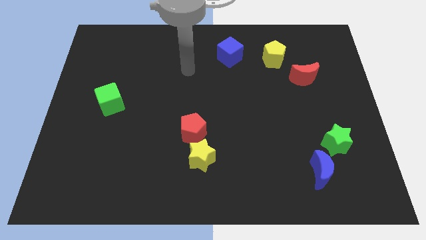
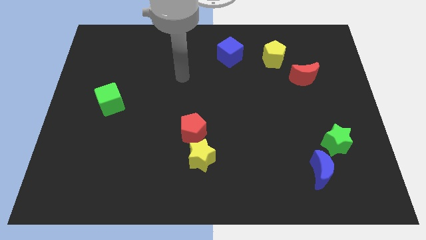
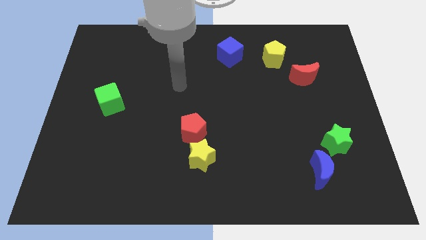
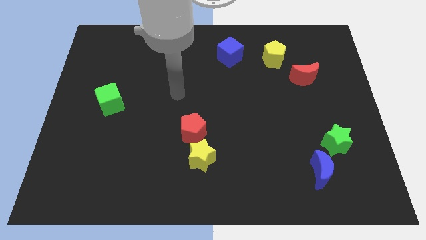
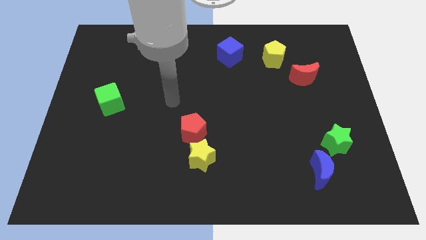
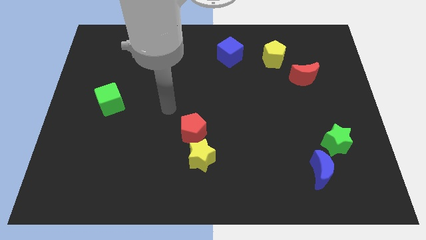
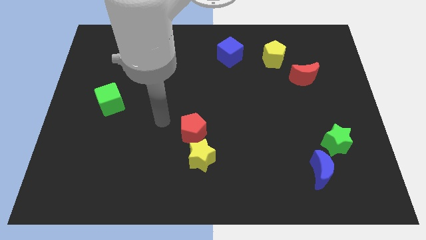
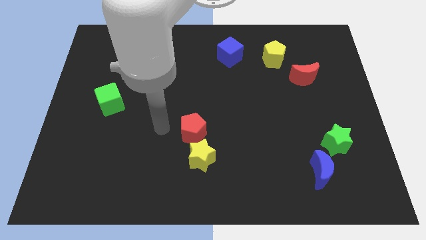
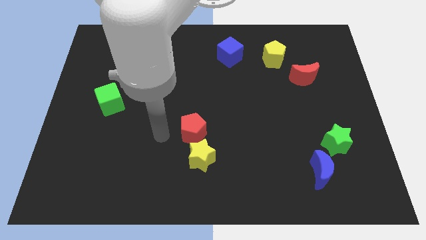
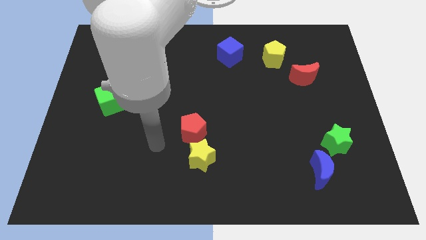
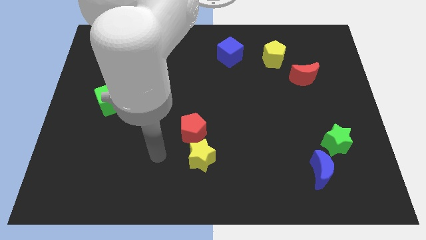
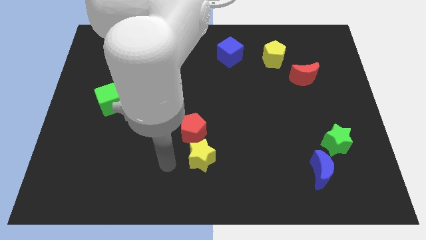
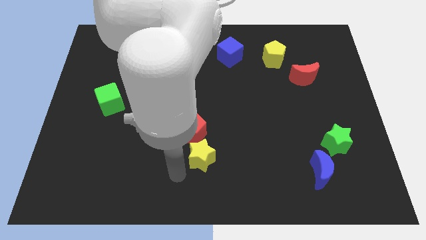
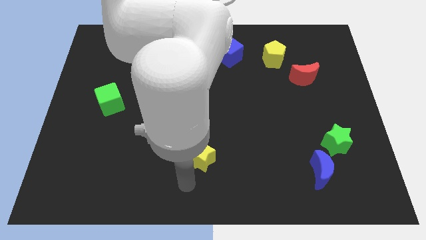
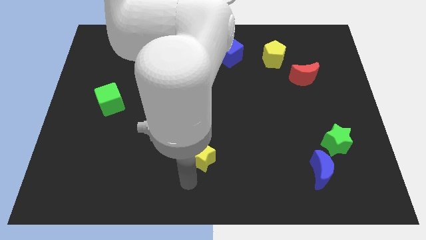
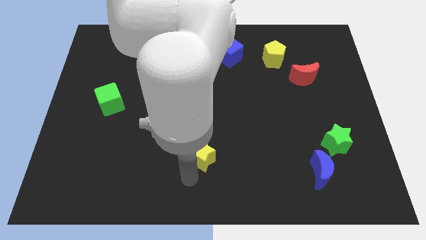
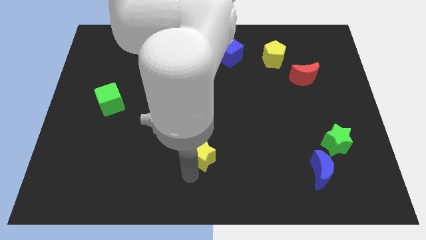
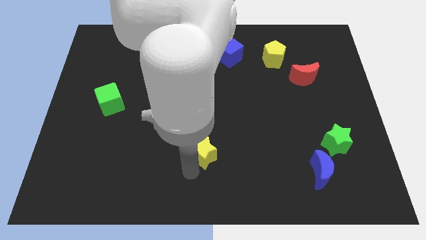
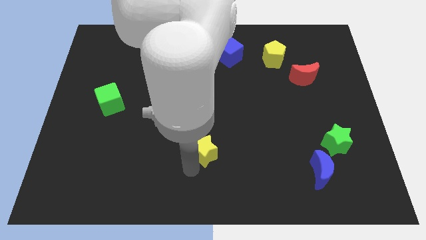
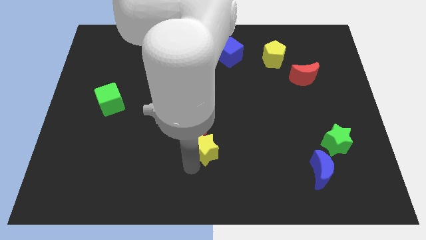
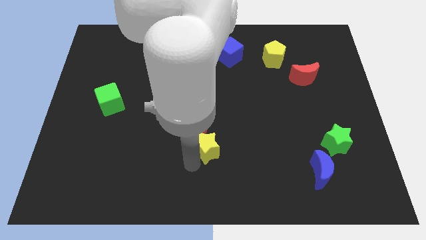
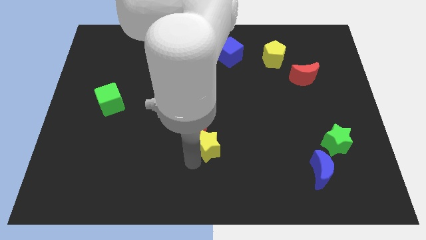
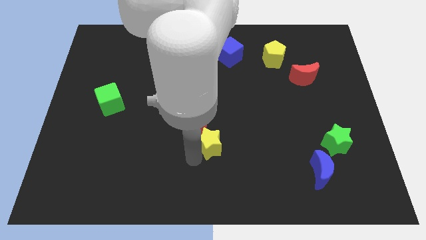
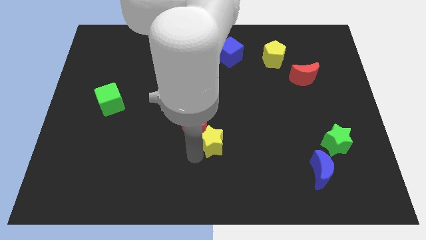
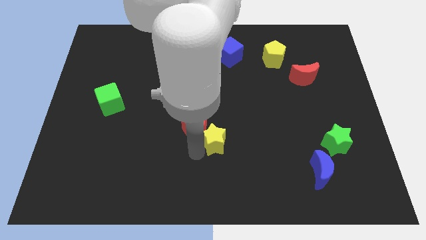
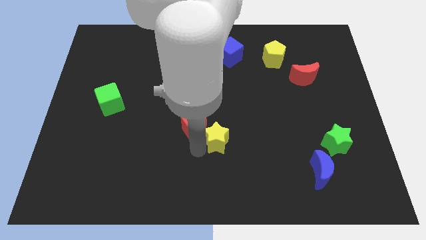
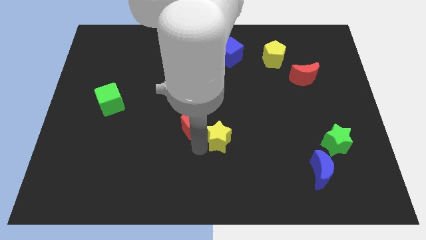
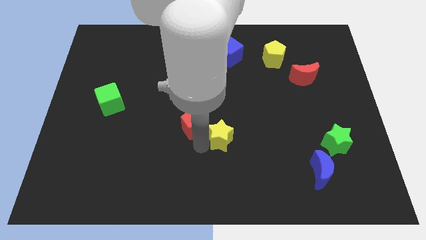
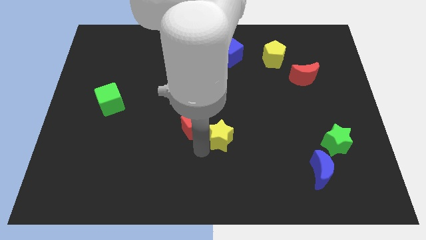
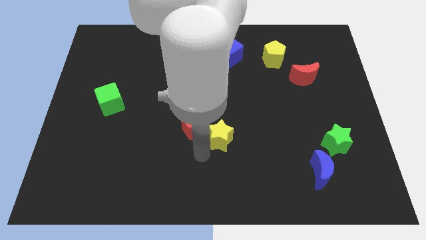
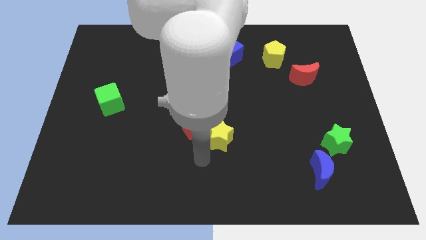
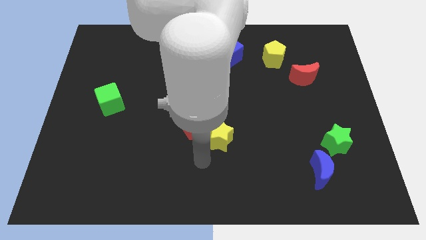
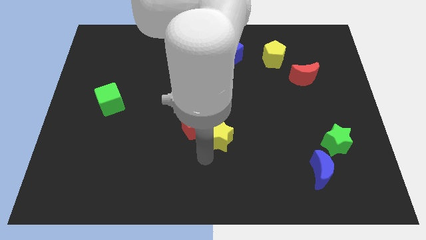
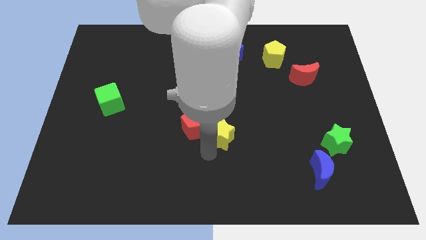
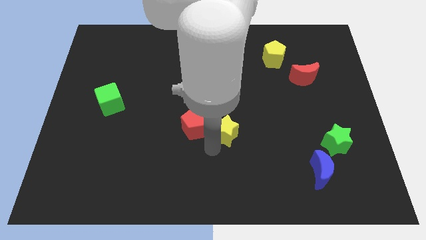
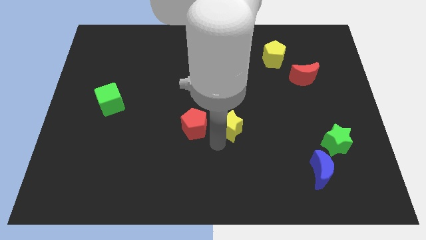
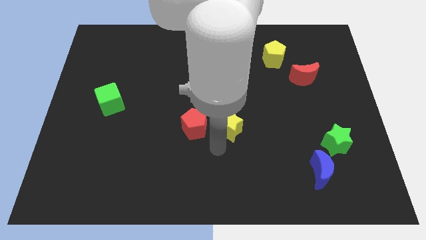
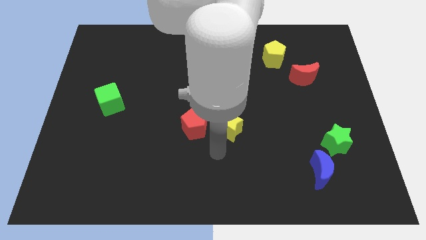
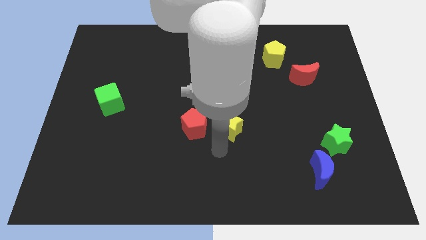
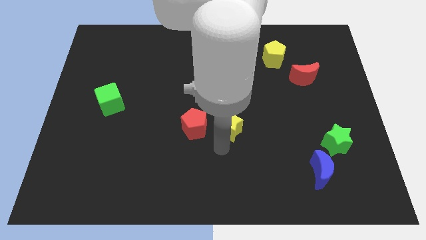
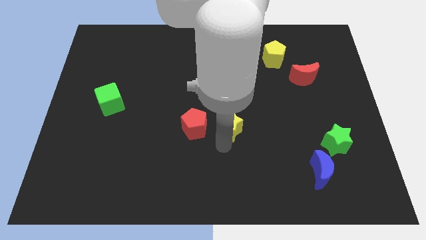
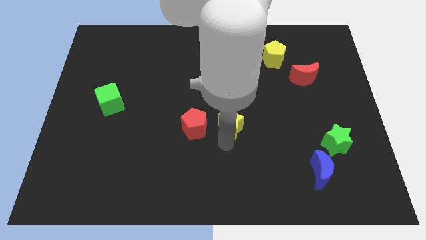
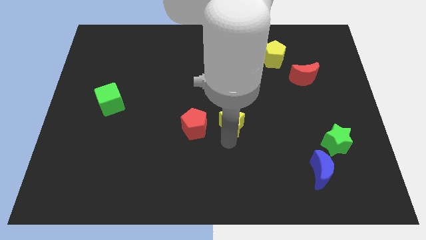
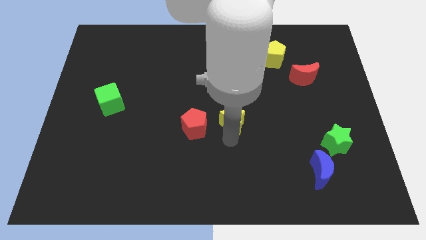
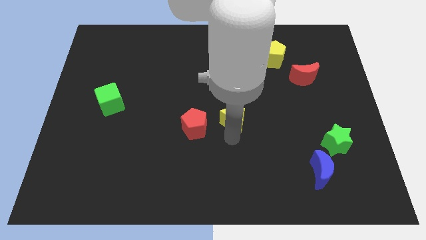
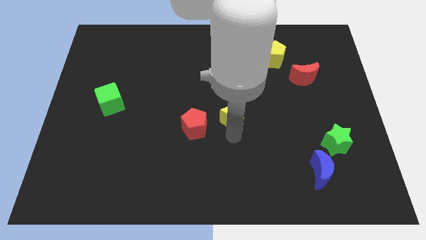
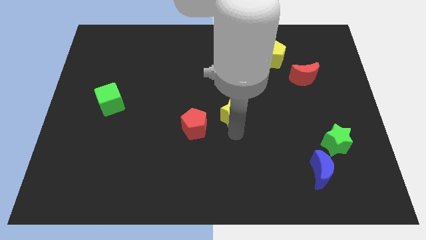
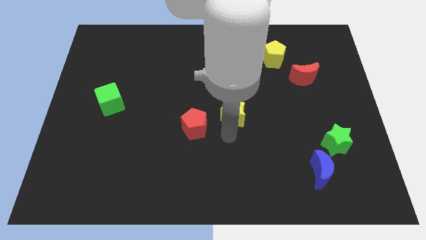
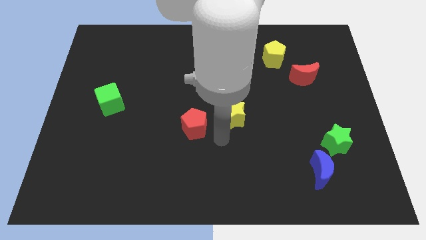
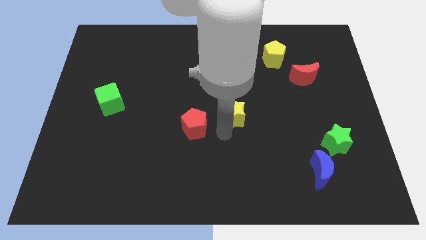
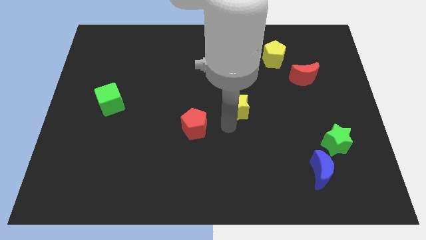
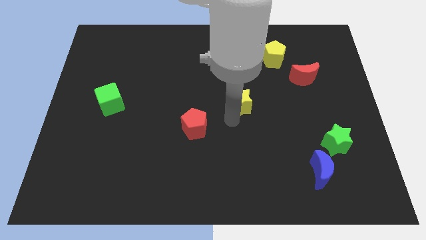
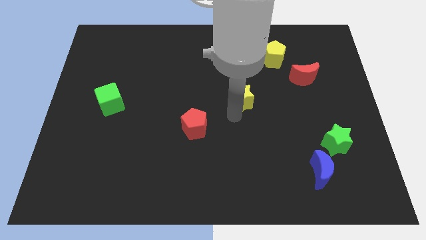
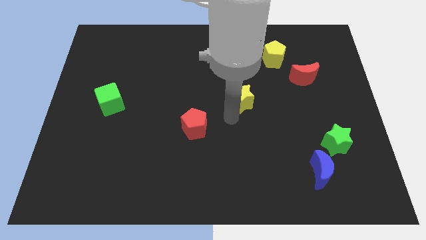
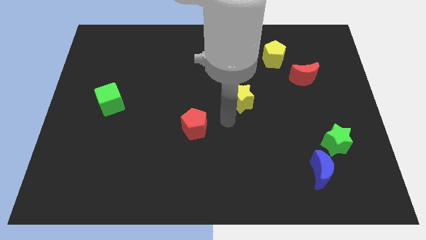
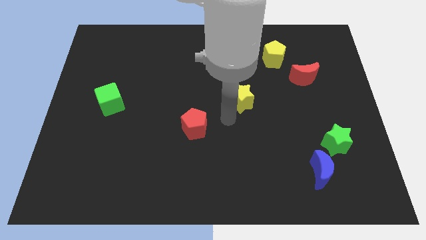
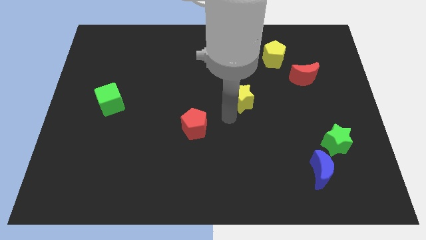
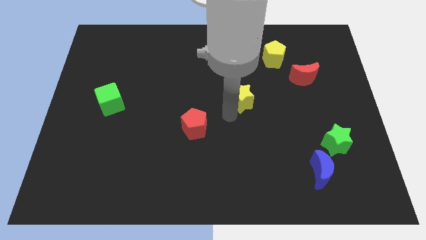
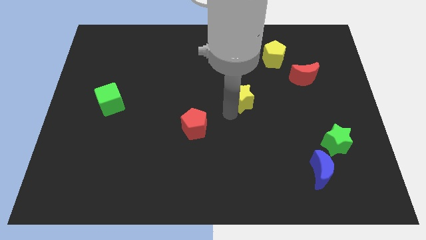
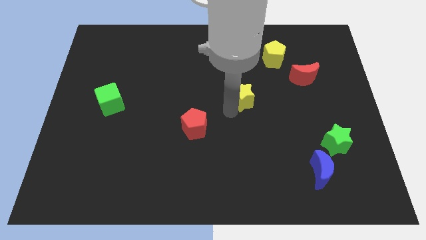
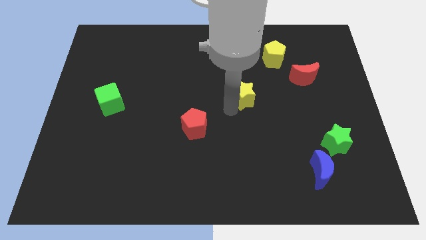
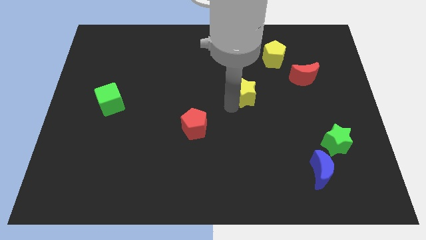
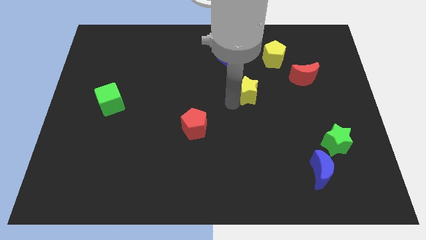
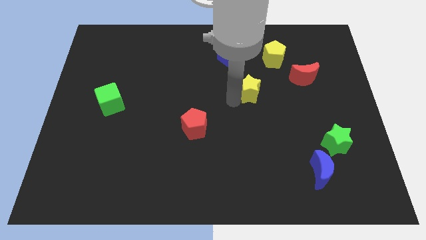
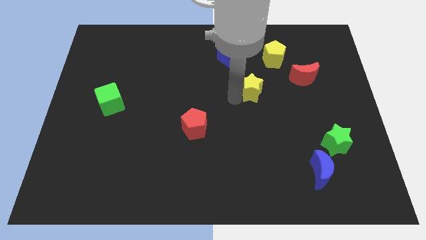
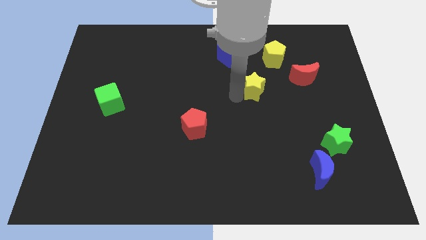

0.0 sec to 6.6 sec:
put the yellow star to the left of the red moon

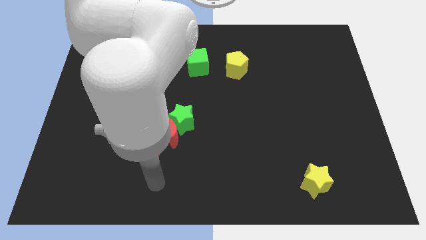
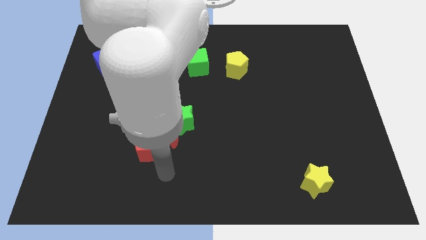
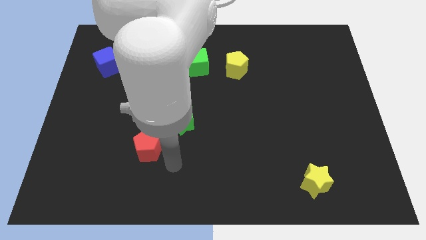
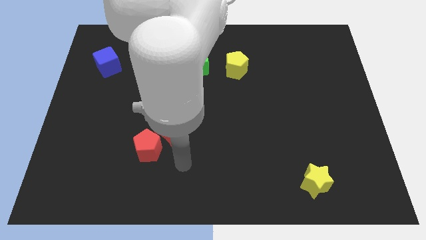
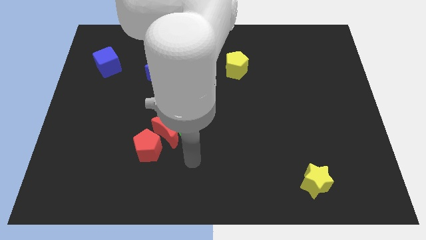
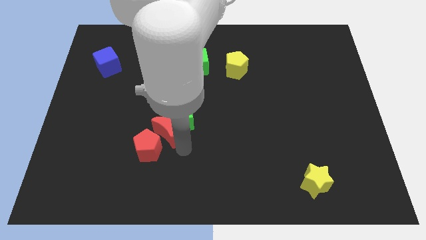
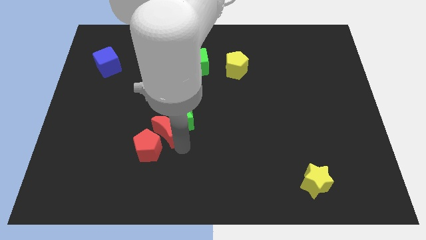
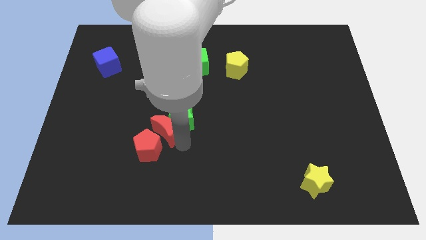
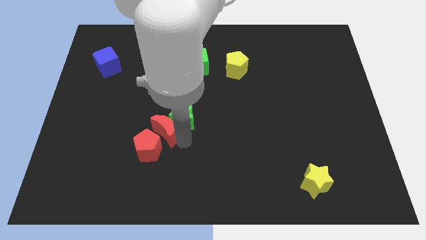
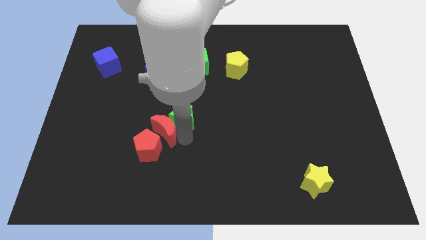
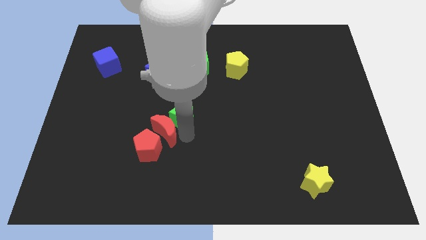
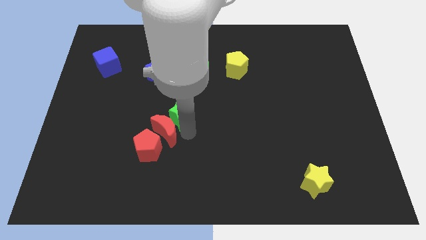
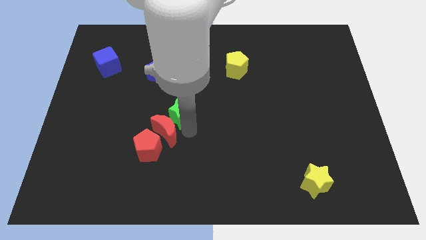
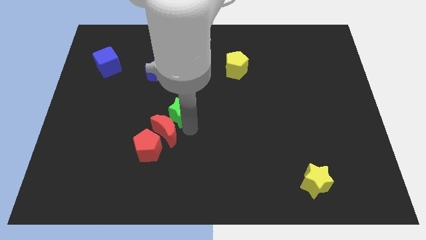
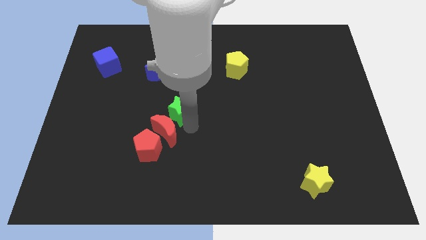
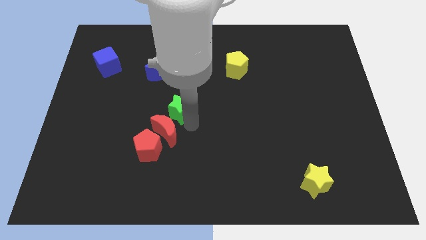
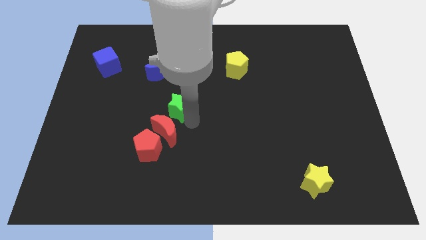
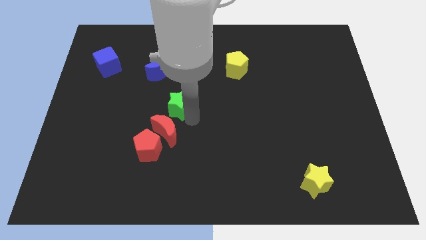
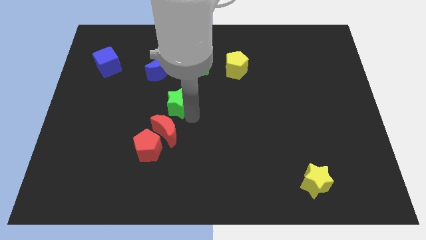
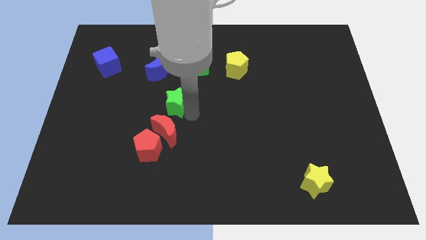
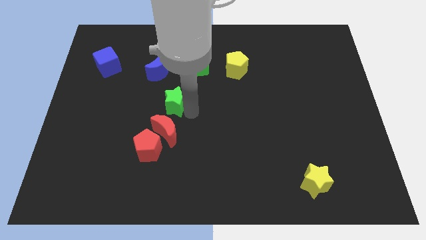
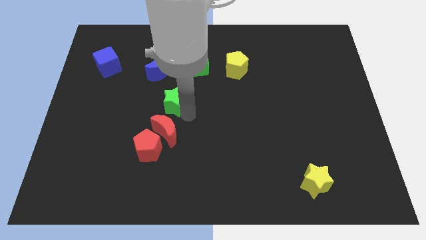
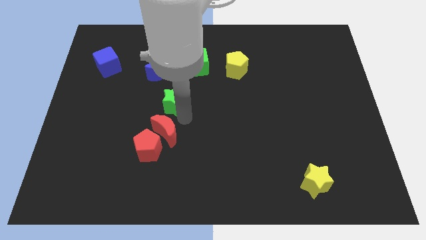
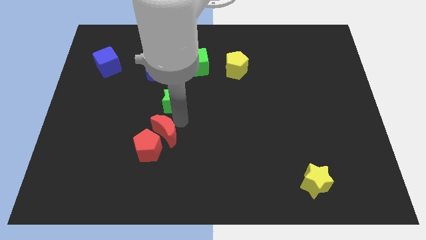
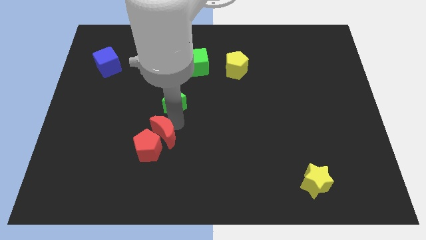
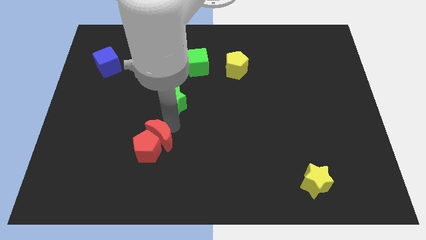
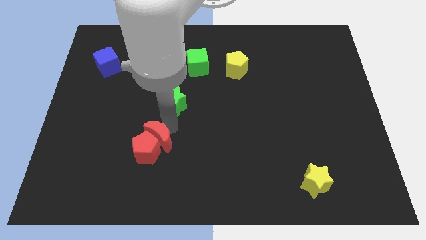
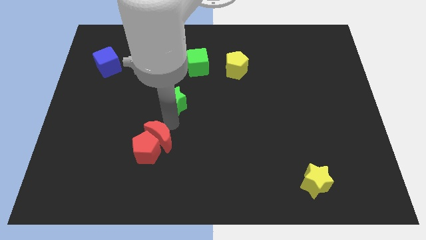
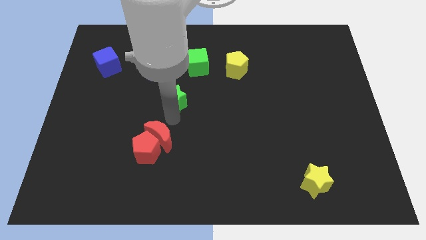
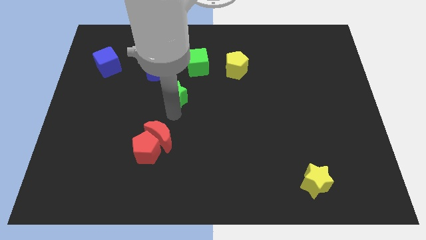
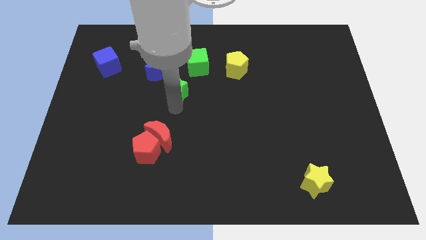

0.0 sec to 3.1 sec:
move the green star to the bottom left side of the green cube
